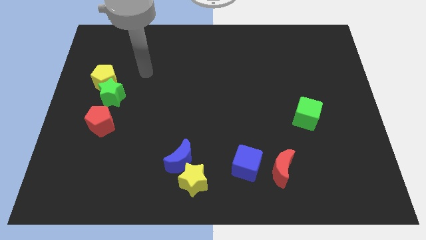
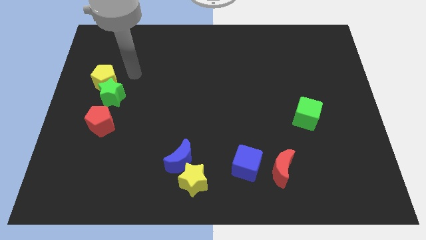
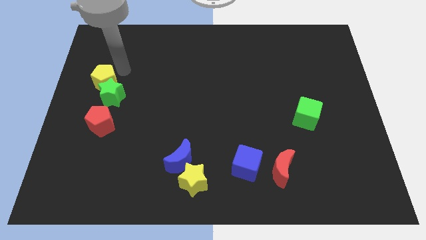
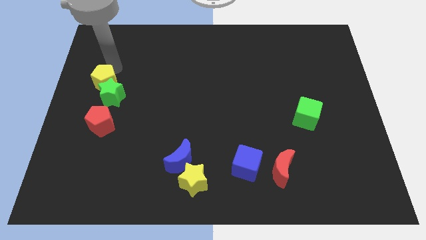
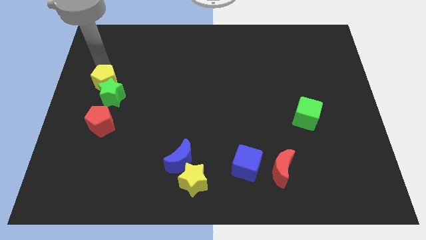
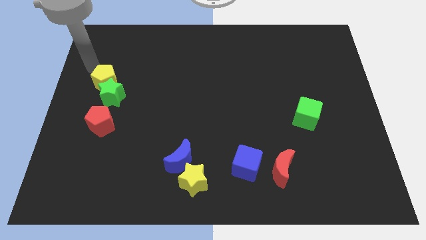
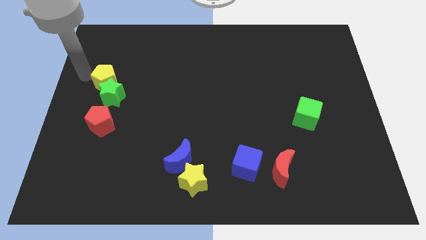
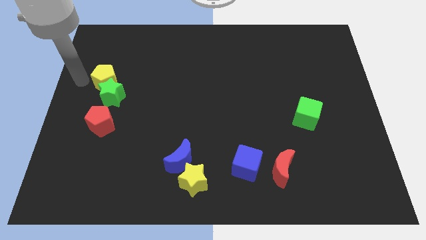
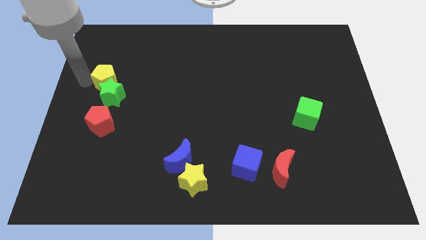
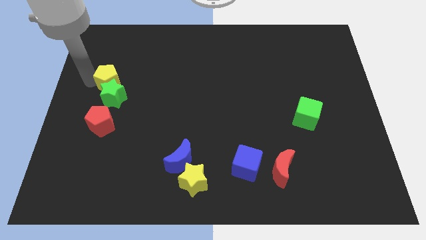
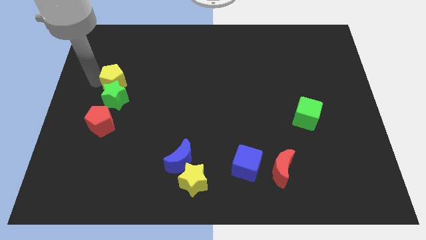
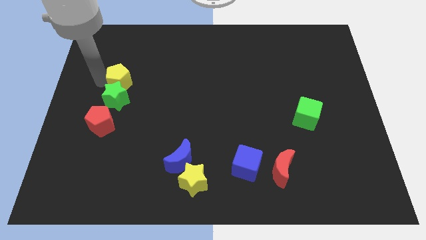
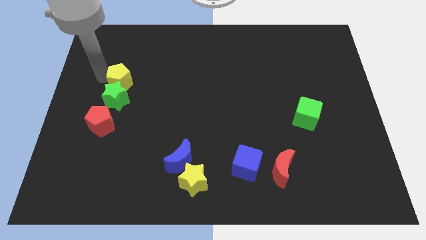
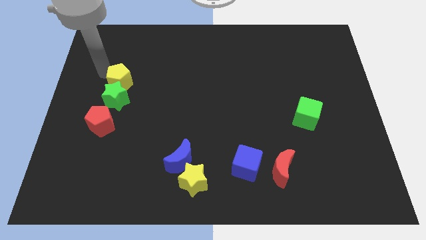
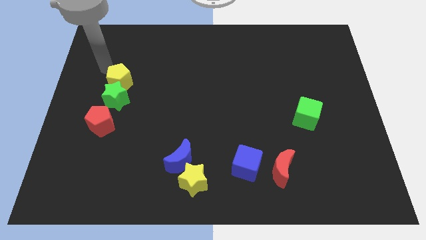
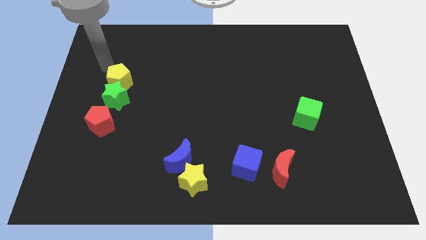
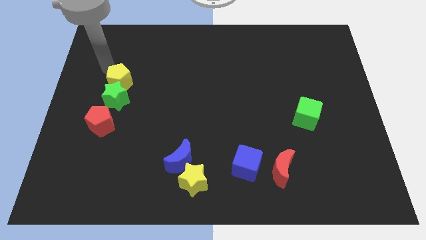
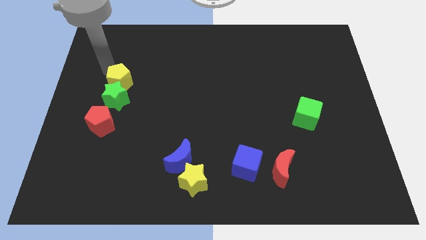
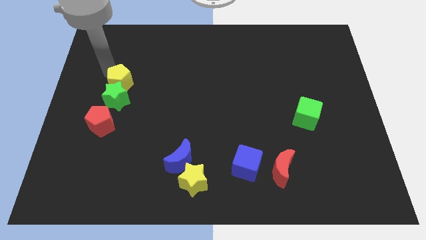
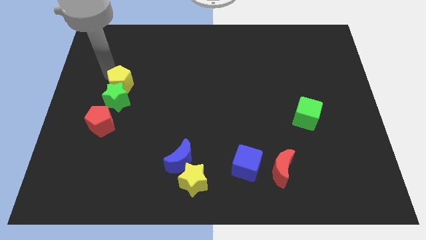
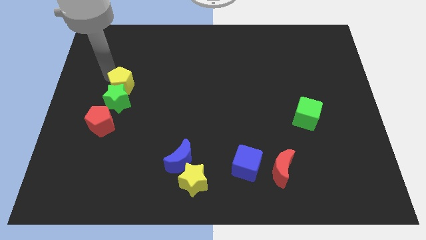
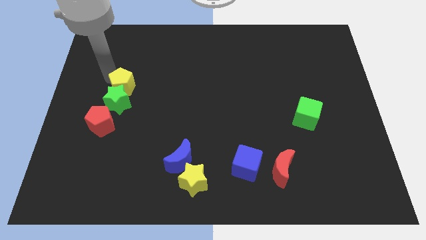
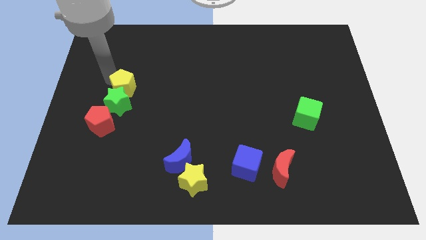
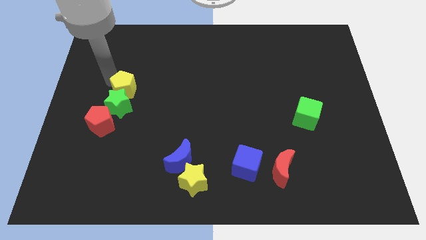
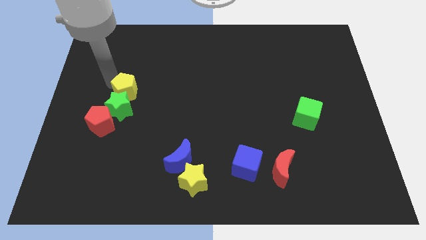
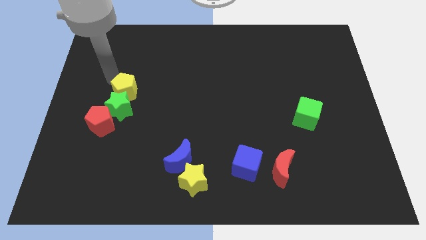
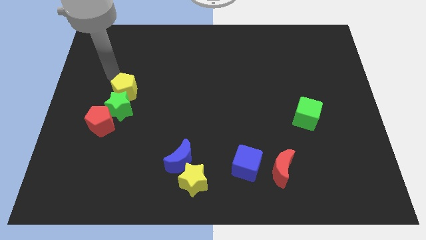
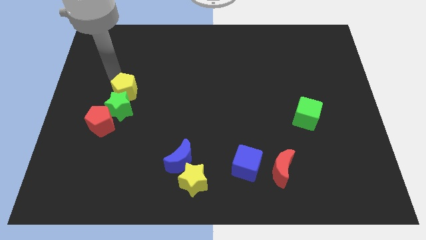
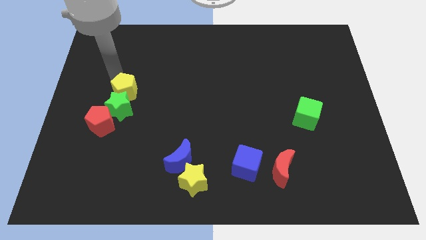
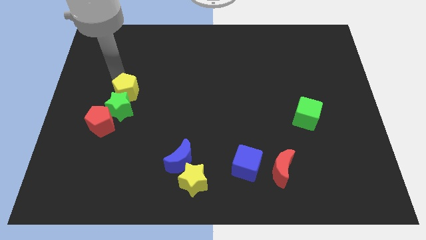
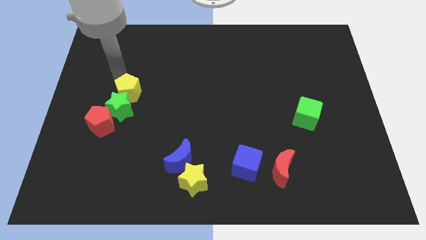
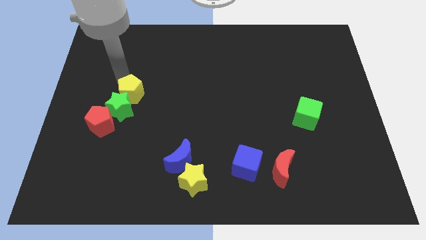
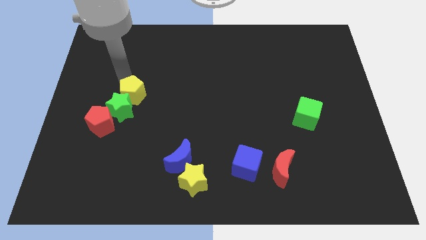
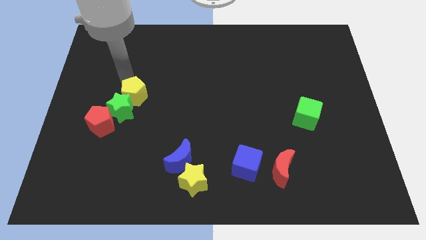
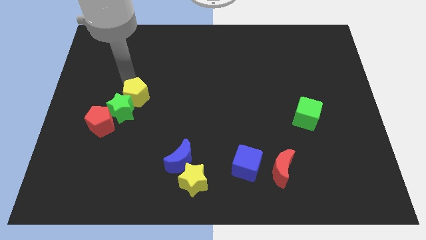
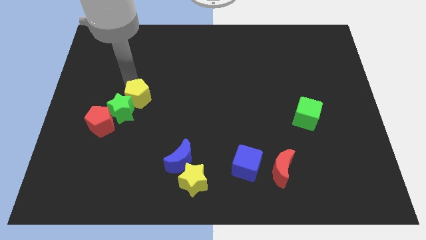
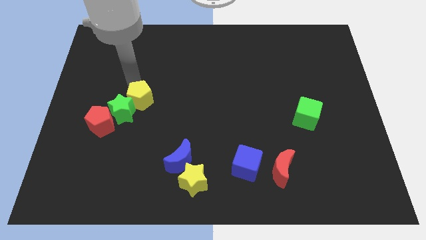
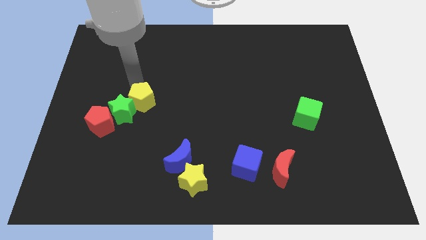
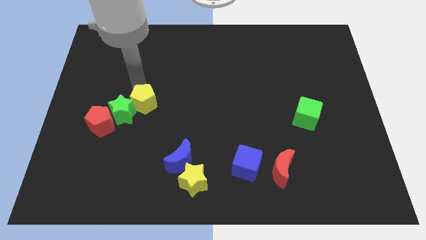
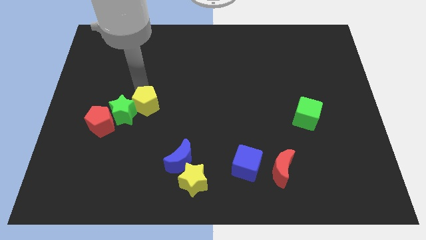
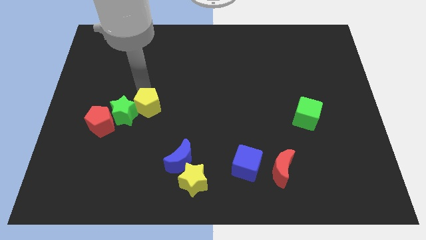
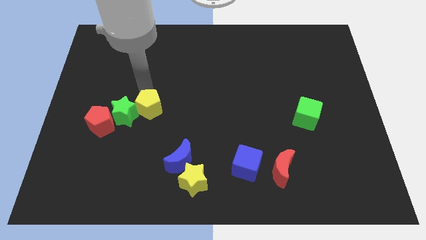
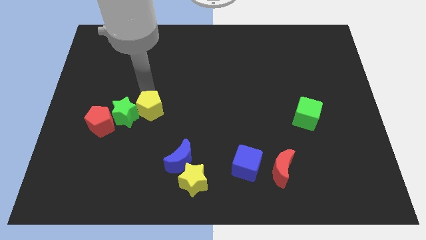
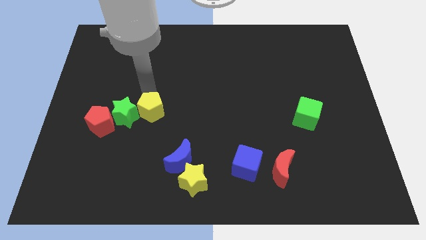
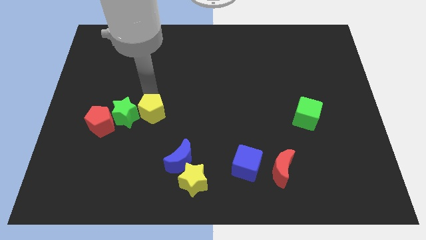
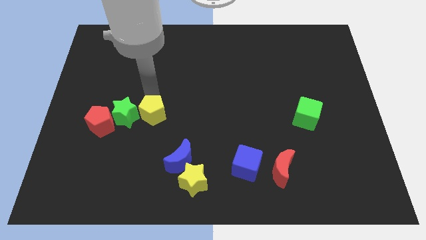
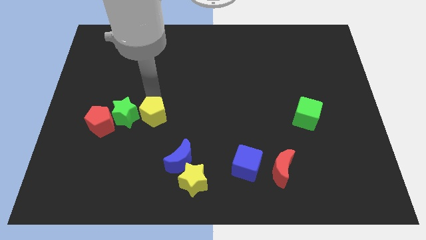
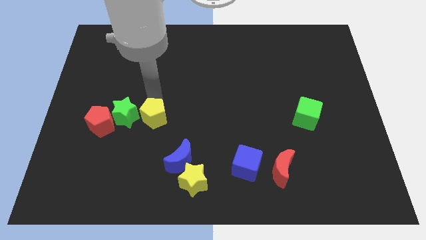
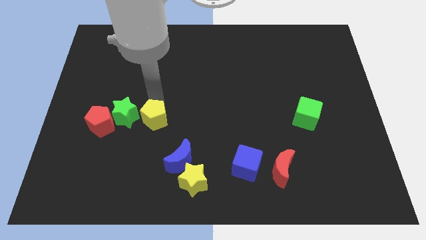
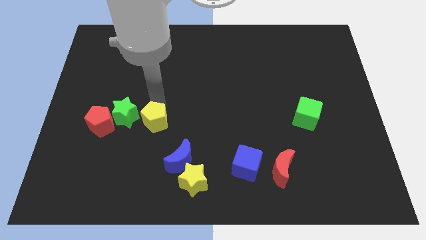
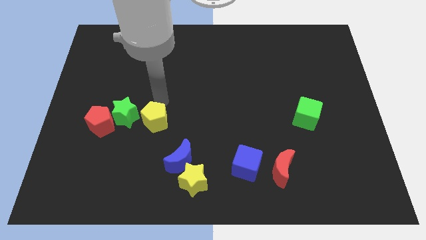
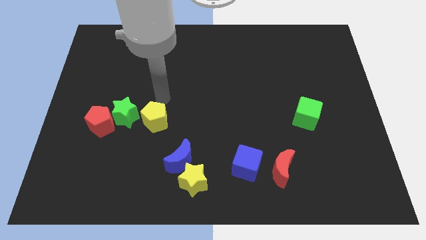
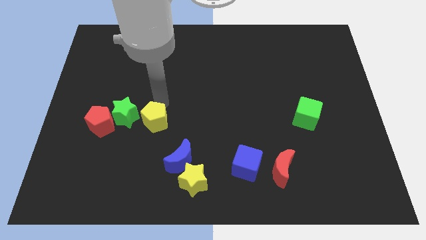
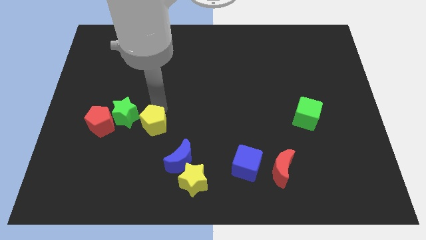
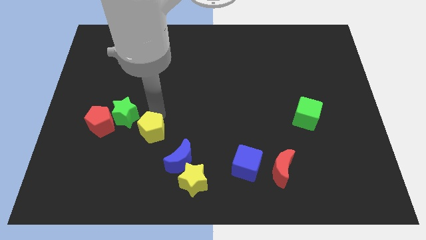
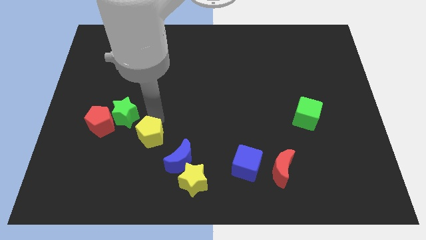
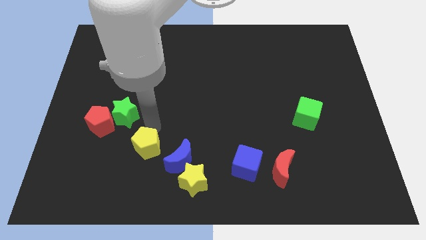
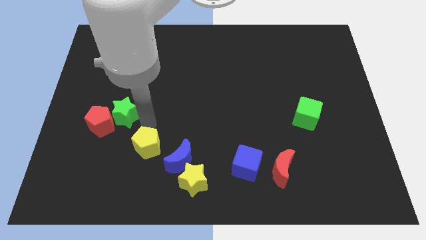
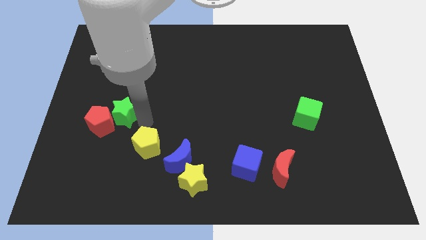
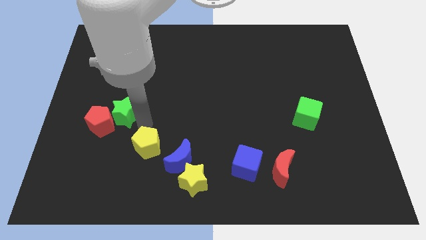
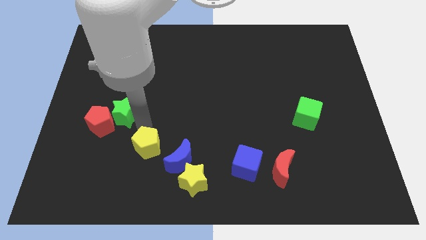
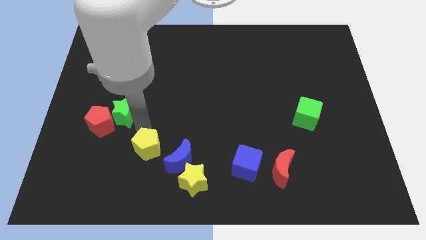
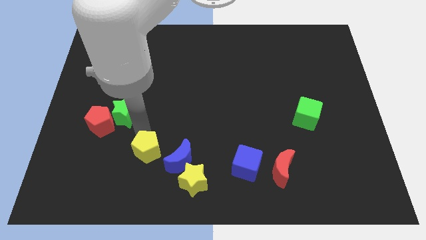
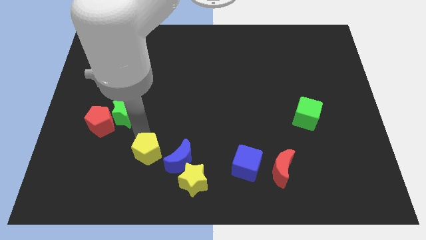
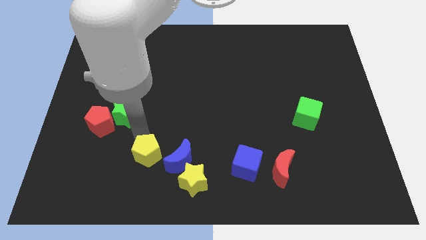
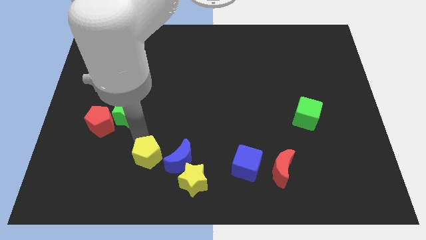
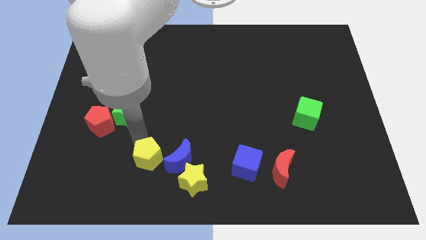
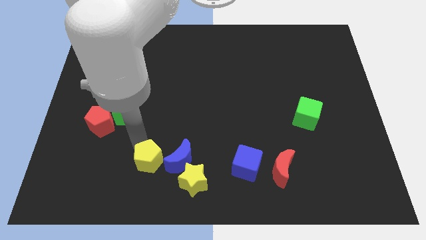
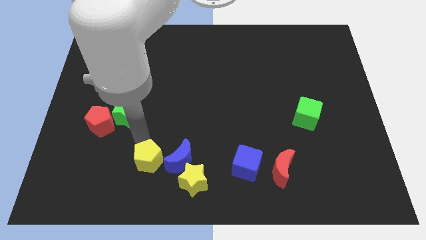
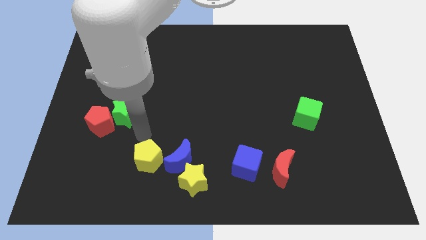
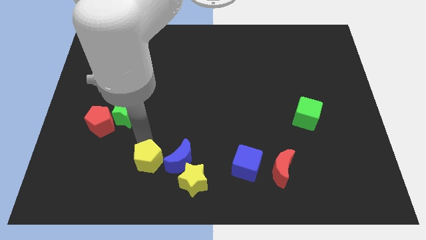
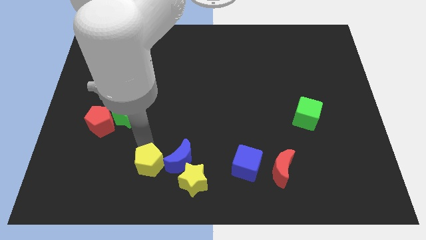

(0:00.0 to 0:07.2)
slide the yellow pentagon diagonally down and to the left of the blue moon

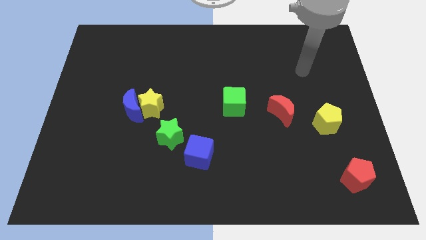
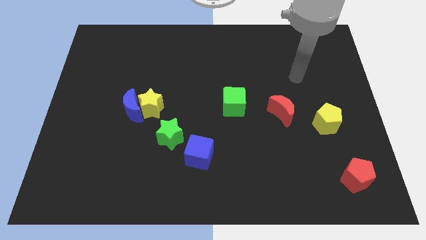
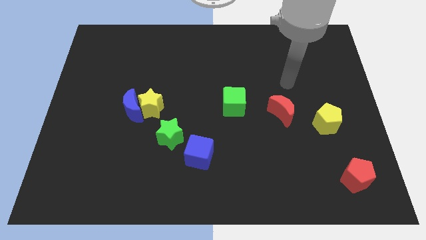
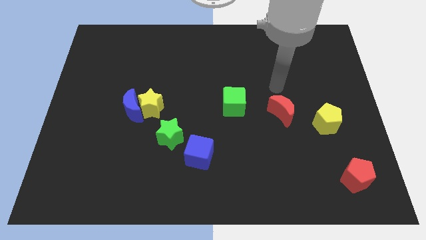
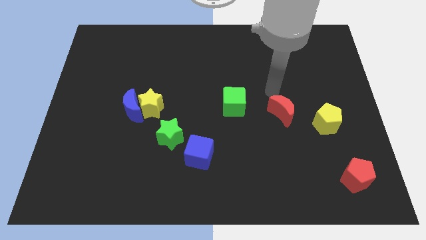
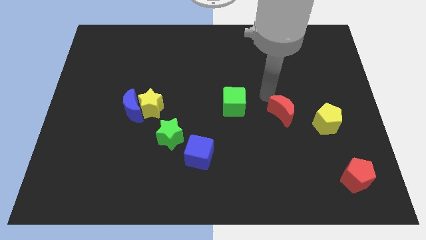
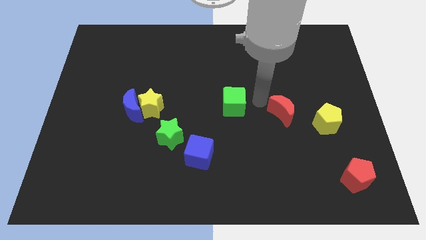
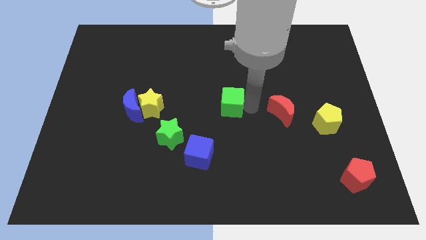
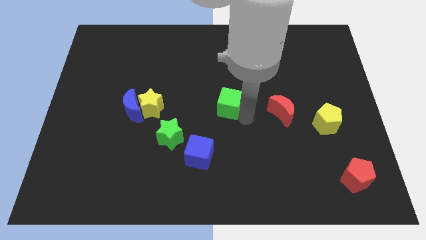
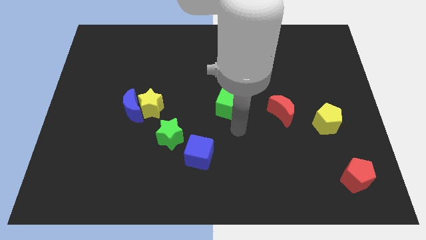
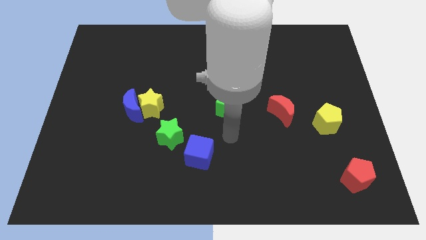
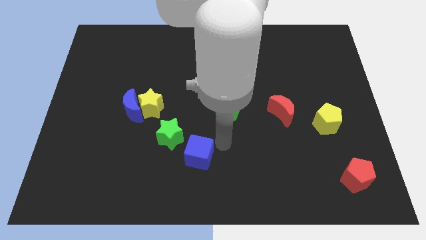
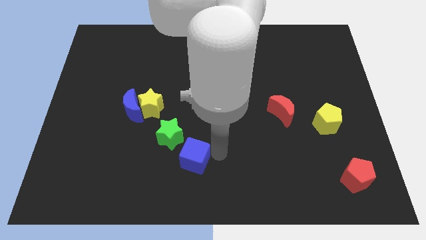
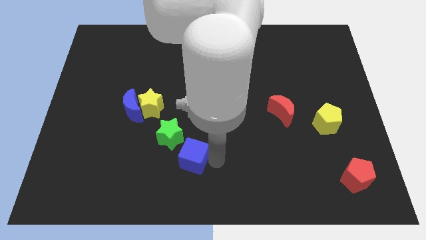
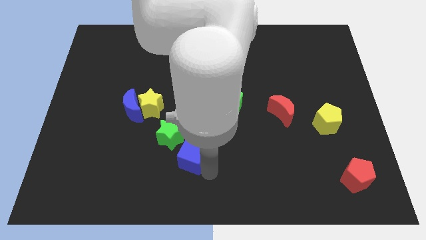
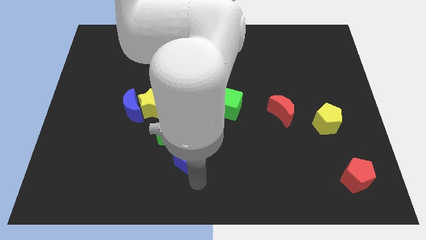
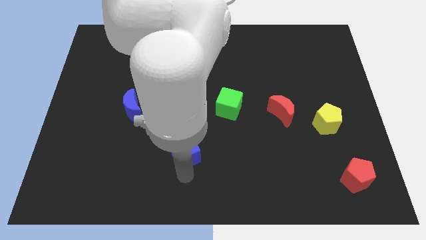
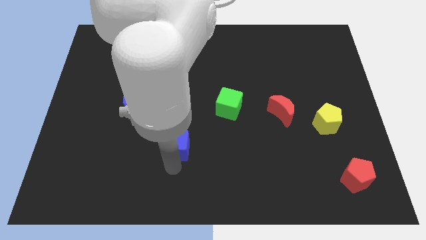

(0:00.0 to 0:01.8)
push the green star right of the blue moon
